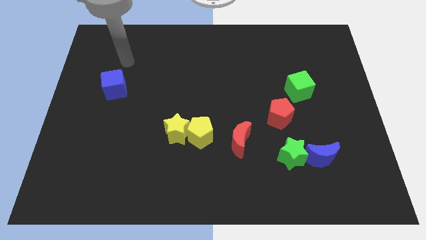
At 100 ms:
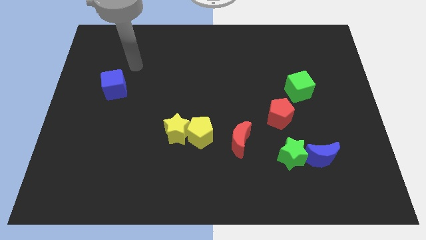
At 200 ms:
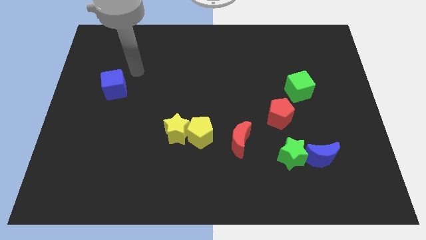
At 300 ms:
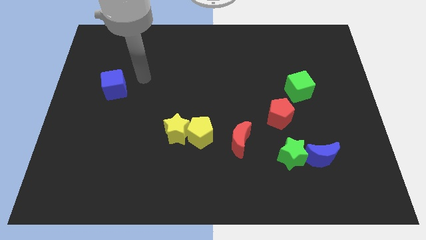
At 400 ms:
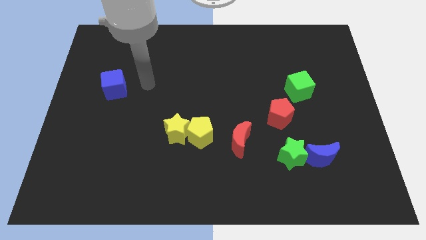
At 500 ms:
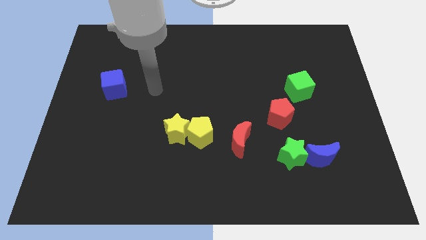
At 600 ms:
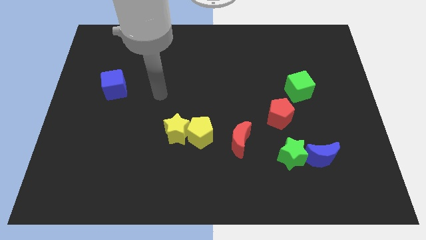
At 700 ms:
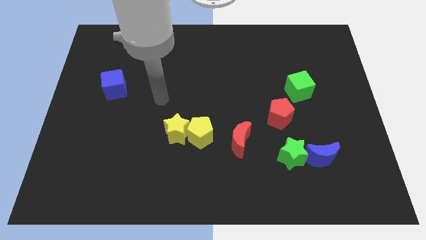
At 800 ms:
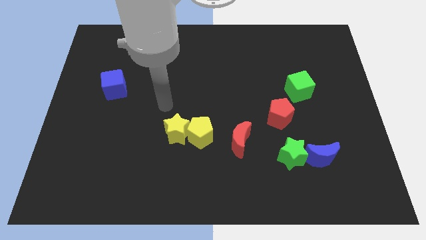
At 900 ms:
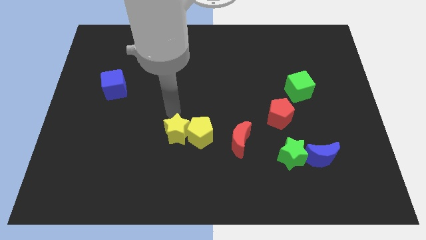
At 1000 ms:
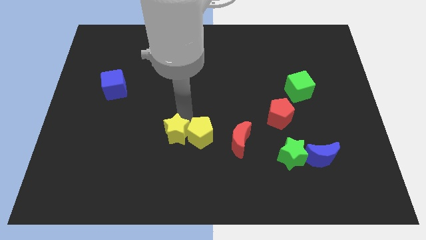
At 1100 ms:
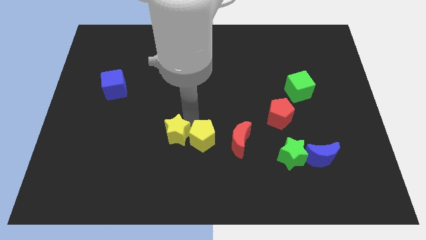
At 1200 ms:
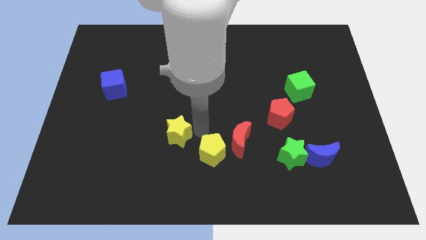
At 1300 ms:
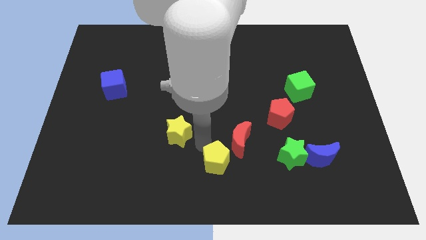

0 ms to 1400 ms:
move the yellow star away from the yellow pentagon

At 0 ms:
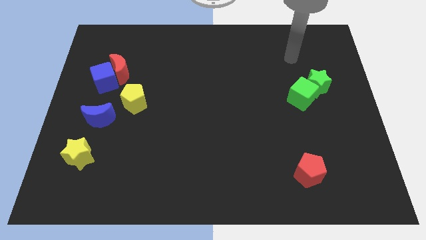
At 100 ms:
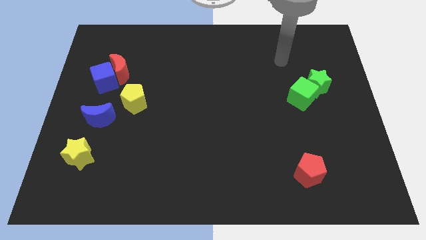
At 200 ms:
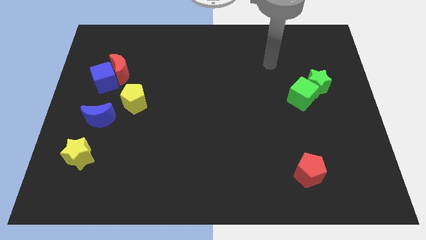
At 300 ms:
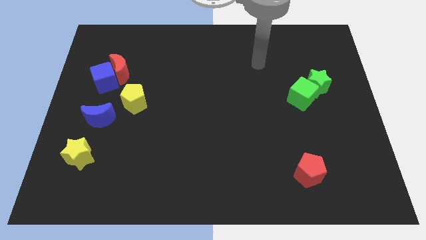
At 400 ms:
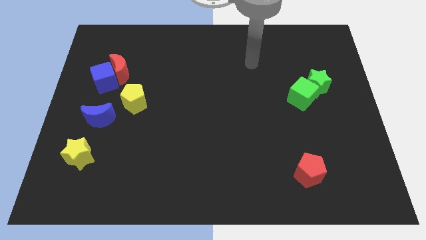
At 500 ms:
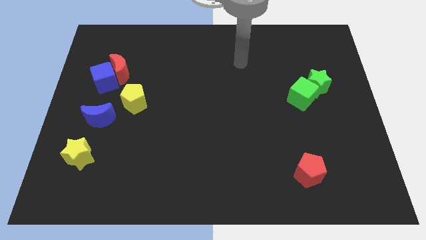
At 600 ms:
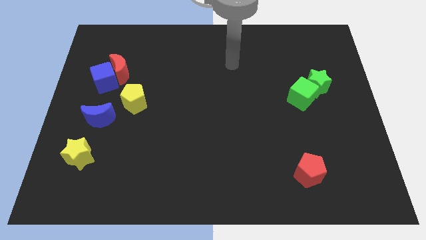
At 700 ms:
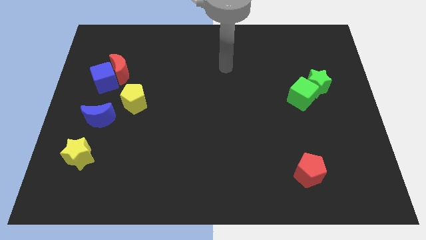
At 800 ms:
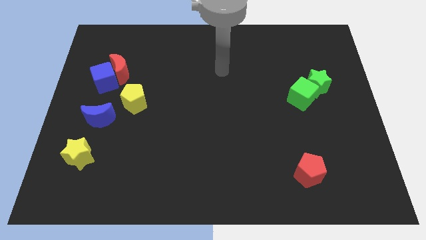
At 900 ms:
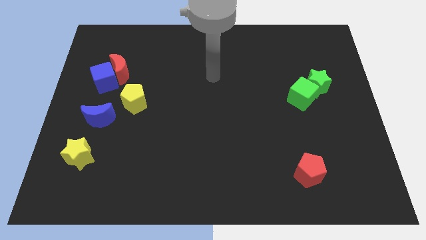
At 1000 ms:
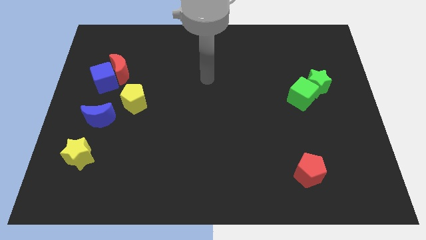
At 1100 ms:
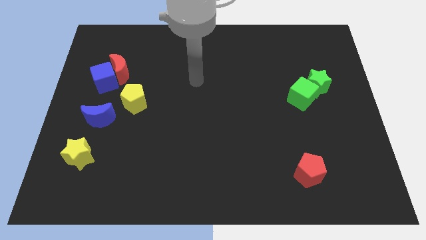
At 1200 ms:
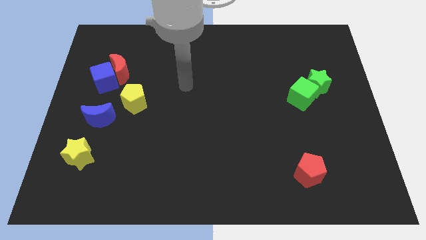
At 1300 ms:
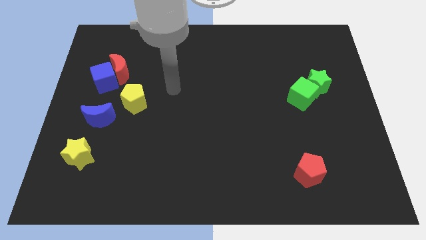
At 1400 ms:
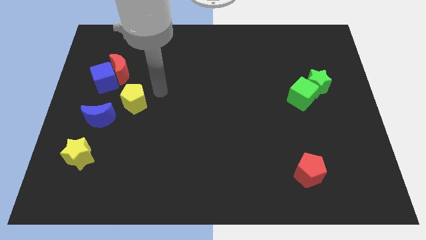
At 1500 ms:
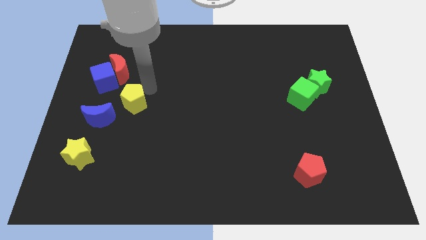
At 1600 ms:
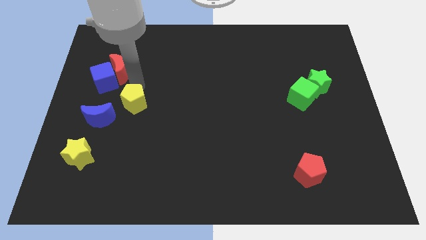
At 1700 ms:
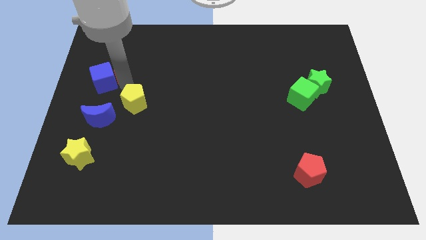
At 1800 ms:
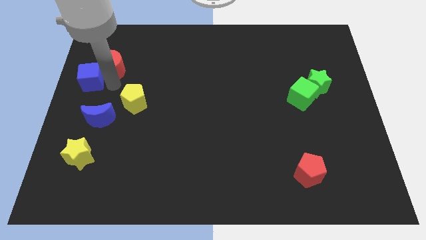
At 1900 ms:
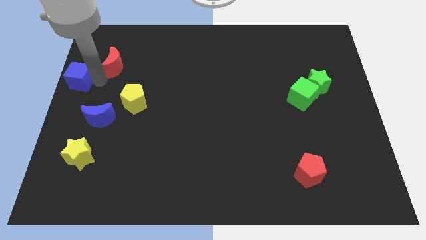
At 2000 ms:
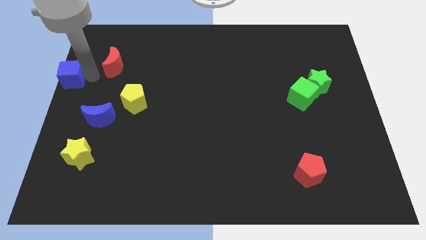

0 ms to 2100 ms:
pull the red moon apart from the blue cube

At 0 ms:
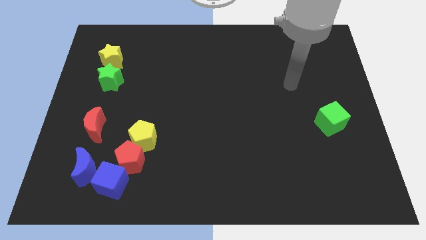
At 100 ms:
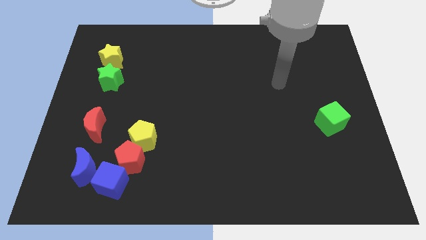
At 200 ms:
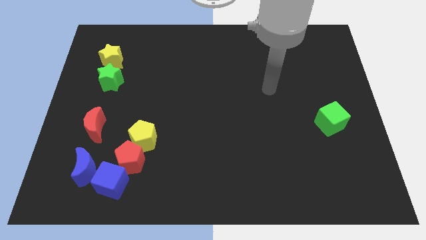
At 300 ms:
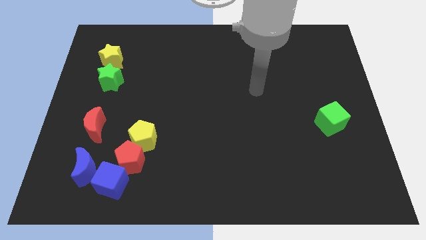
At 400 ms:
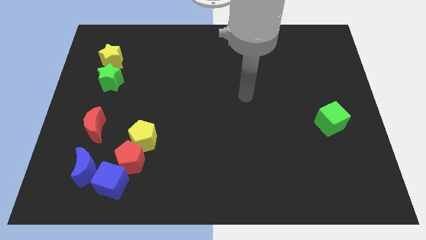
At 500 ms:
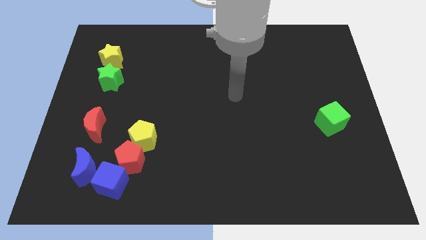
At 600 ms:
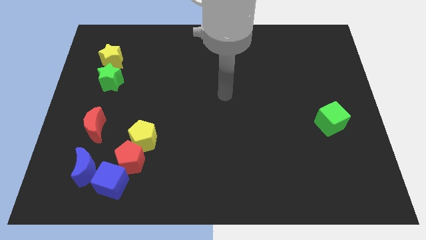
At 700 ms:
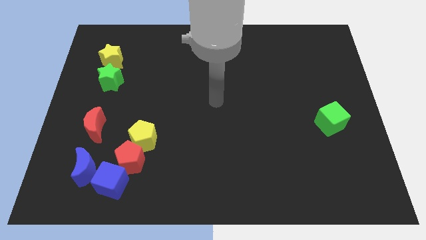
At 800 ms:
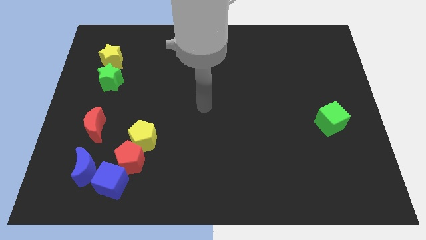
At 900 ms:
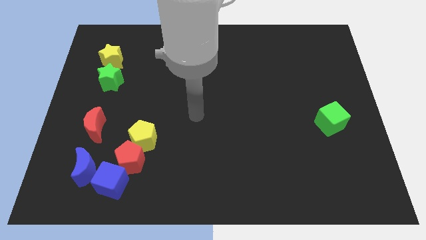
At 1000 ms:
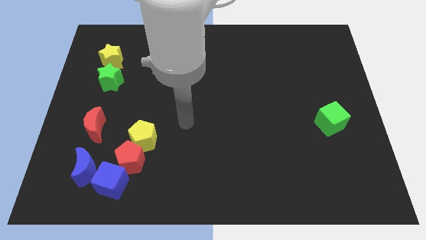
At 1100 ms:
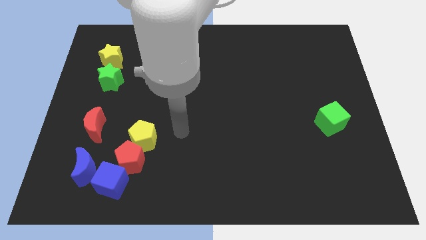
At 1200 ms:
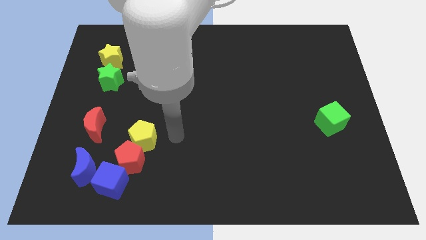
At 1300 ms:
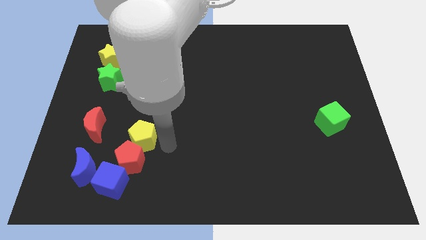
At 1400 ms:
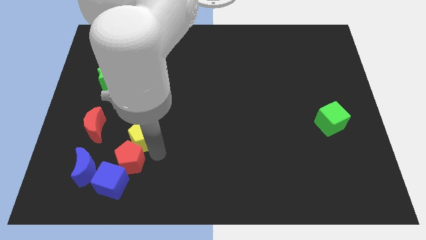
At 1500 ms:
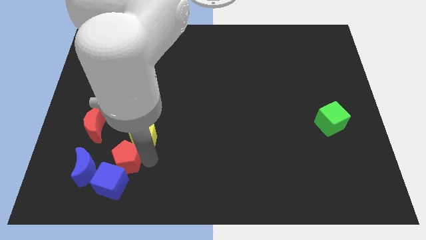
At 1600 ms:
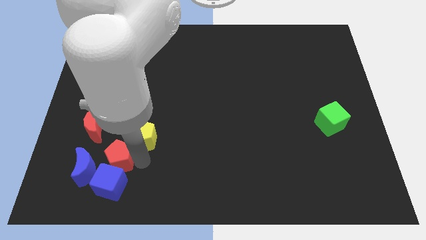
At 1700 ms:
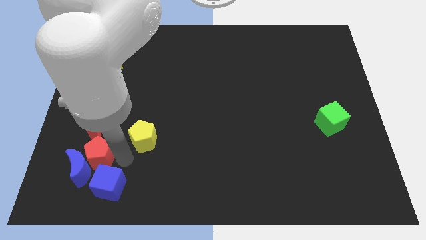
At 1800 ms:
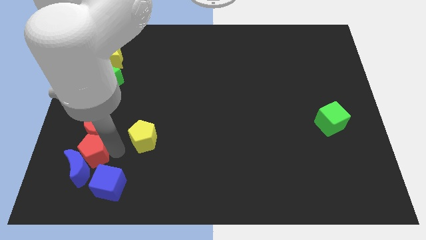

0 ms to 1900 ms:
pull the yellow pentagon apart from the red pentagon

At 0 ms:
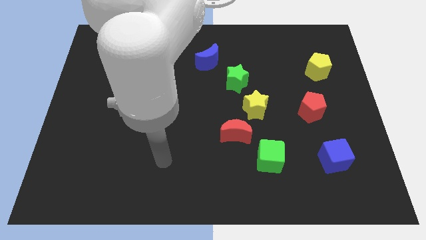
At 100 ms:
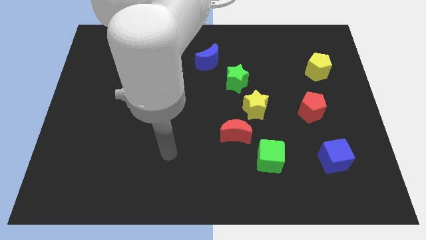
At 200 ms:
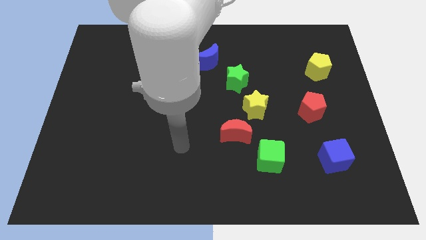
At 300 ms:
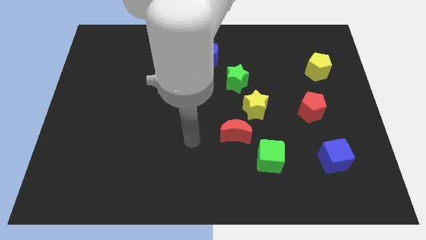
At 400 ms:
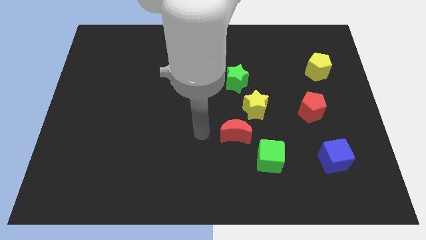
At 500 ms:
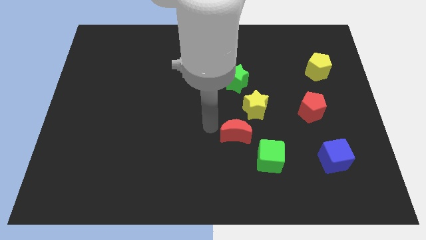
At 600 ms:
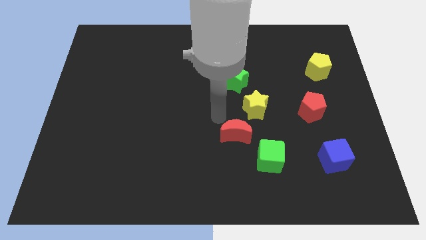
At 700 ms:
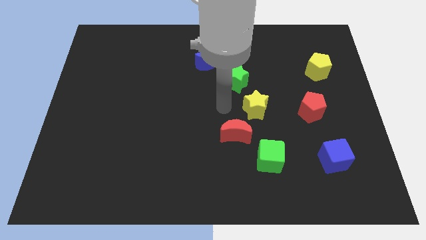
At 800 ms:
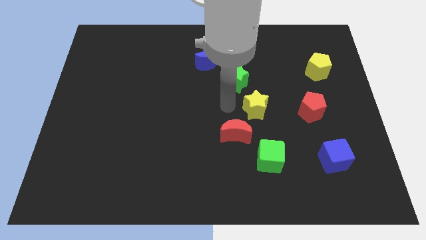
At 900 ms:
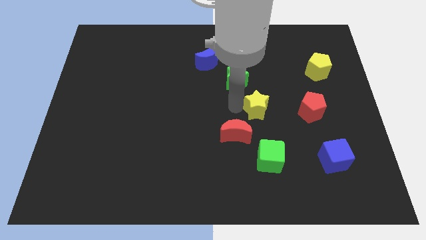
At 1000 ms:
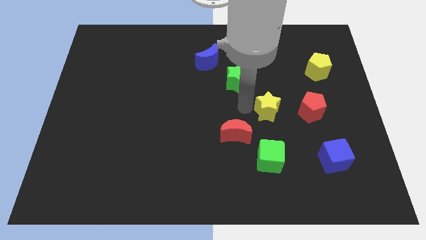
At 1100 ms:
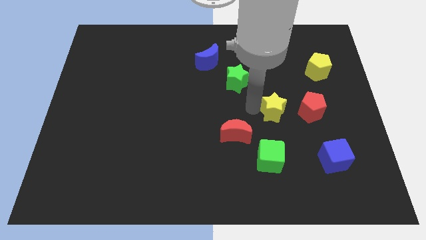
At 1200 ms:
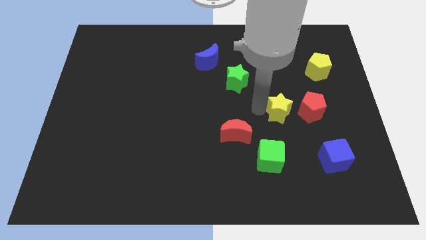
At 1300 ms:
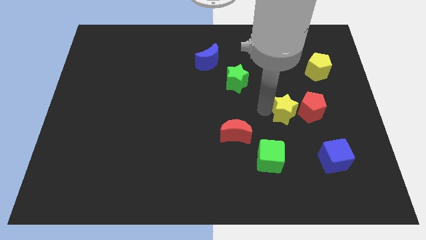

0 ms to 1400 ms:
separate the yellow star from the red moon and green star

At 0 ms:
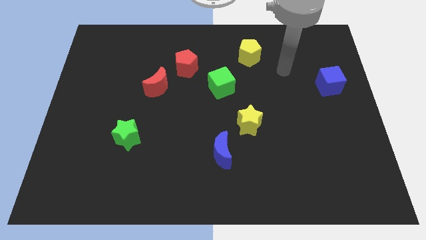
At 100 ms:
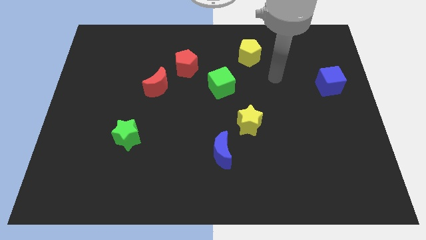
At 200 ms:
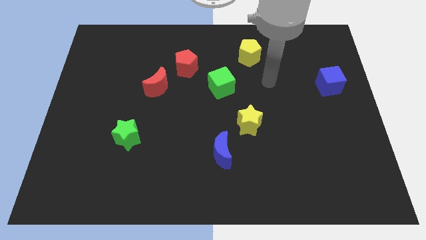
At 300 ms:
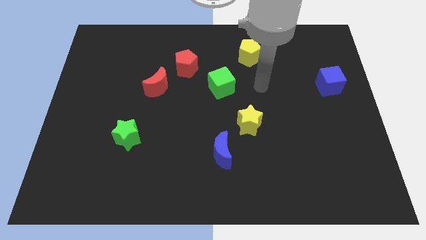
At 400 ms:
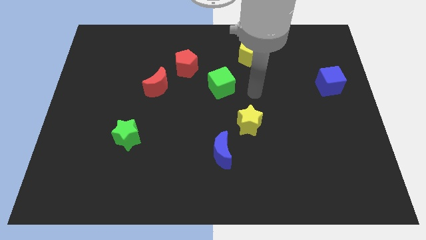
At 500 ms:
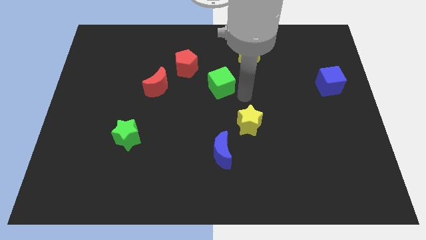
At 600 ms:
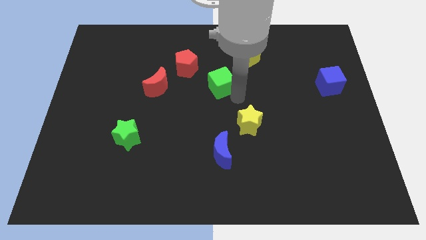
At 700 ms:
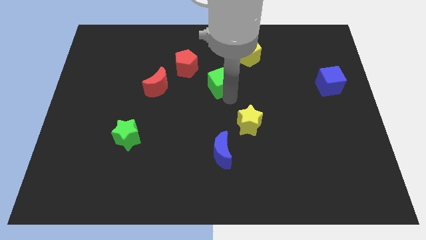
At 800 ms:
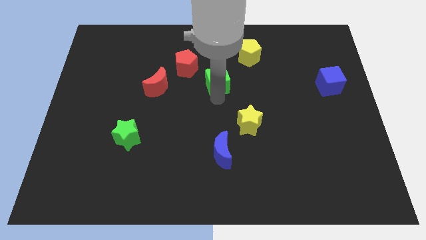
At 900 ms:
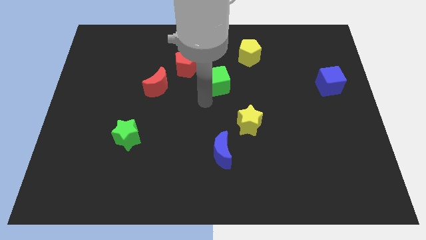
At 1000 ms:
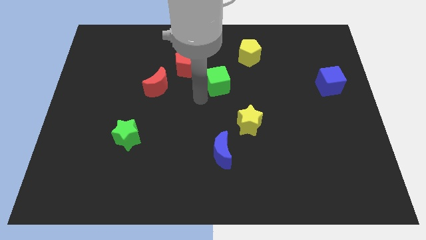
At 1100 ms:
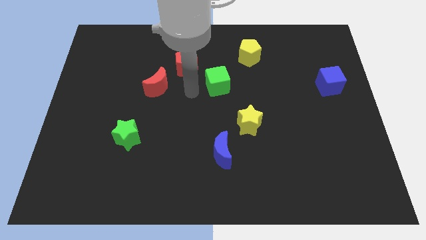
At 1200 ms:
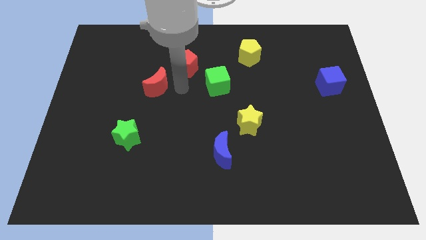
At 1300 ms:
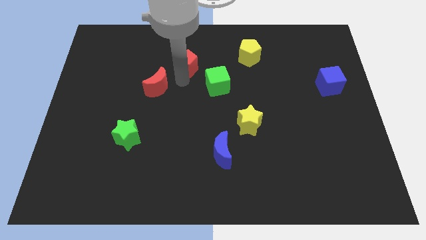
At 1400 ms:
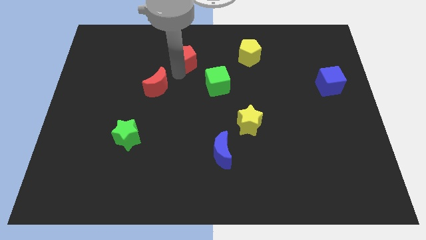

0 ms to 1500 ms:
separate the red moon from the red pentagon

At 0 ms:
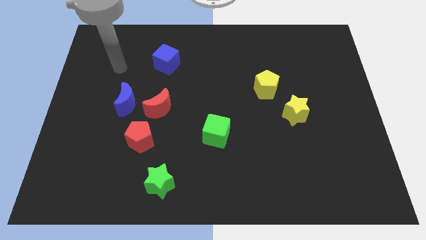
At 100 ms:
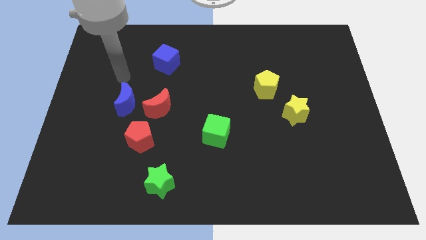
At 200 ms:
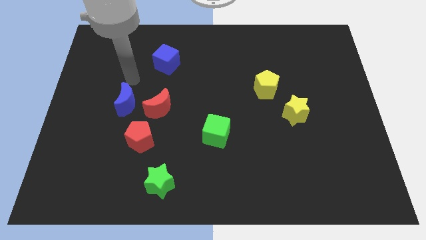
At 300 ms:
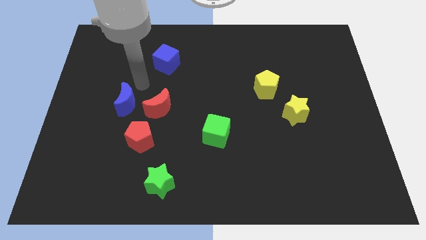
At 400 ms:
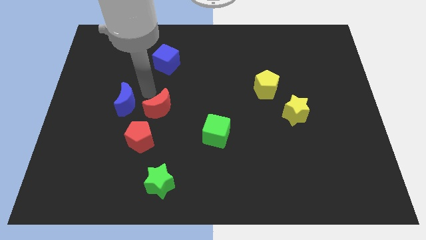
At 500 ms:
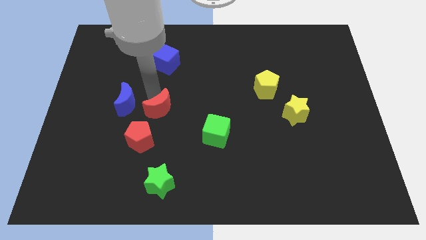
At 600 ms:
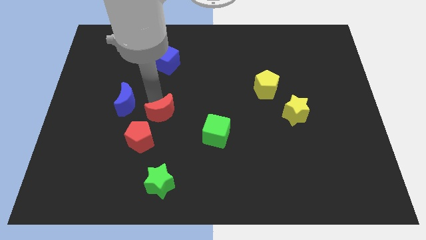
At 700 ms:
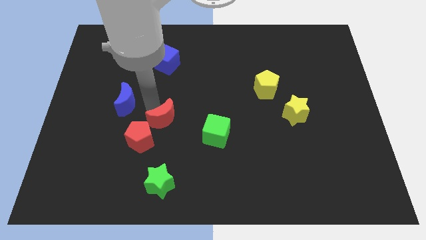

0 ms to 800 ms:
separate the blue moon from the red moon

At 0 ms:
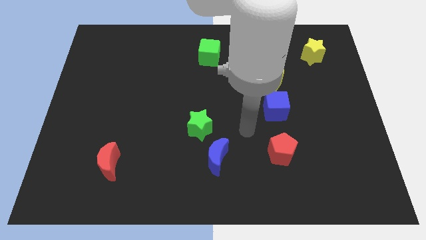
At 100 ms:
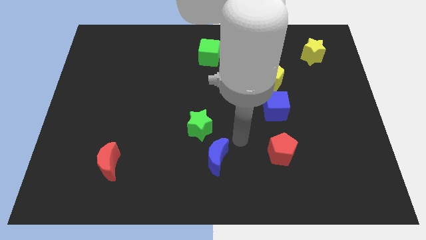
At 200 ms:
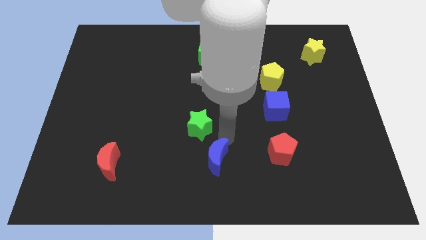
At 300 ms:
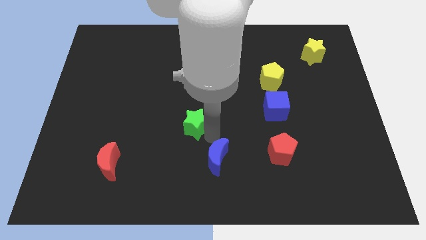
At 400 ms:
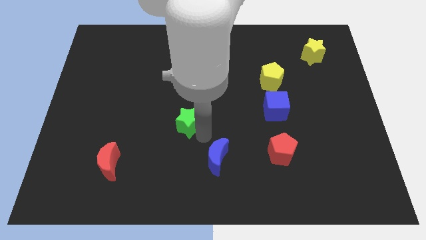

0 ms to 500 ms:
separate the blue moon from the green star
